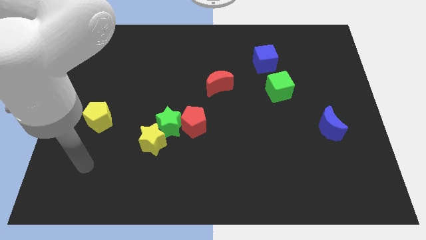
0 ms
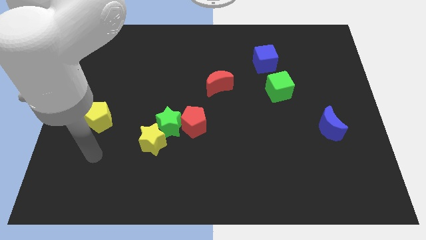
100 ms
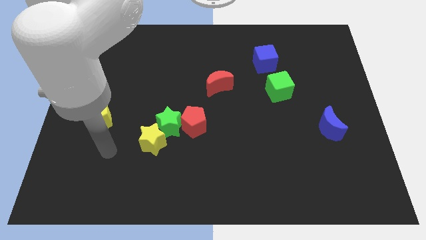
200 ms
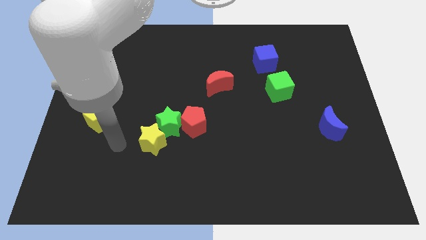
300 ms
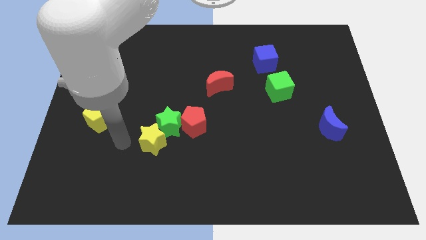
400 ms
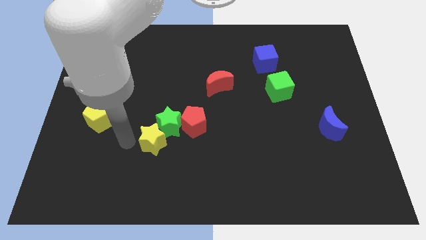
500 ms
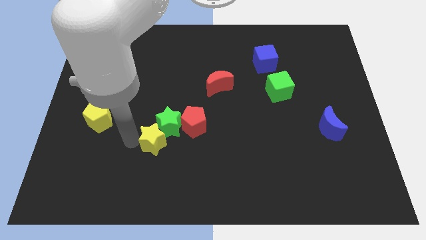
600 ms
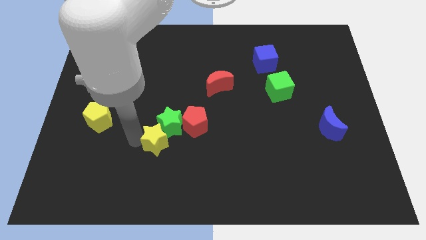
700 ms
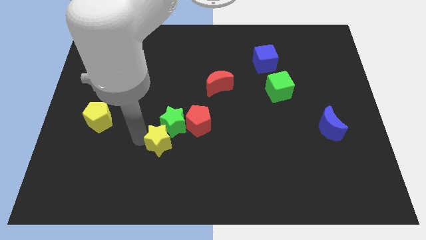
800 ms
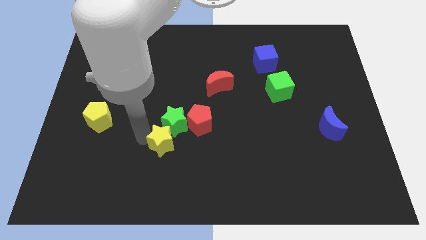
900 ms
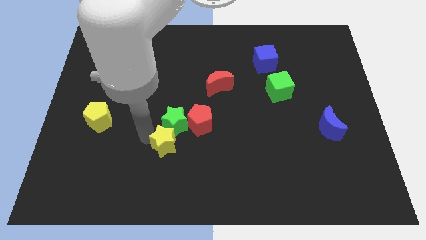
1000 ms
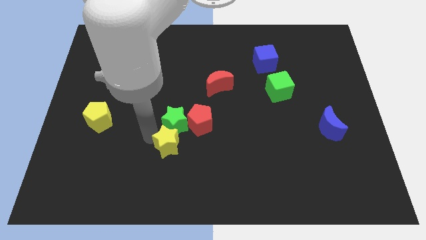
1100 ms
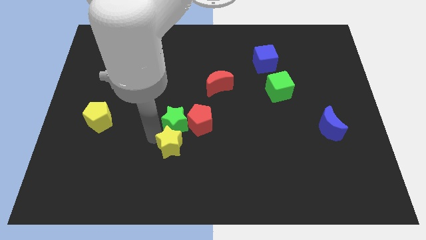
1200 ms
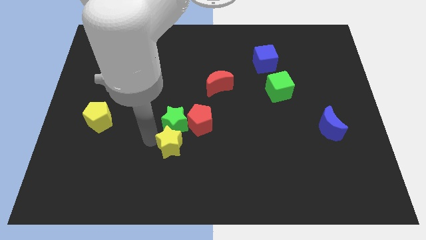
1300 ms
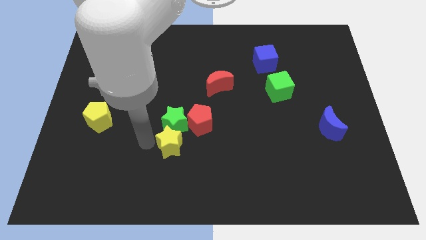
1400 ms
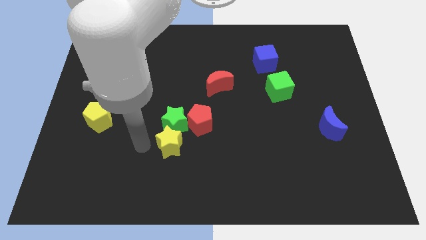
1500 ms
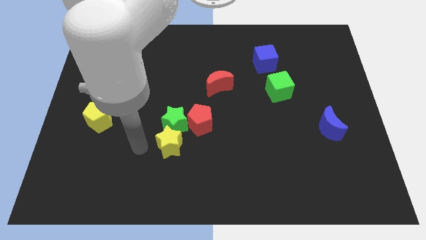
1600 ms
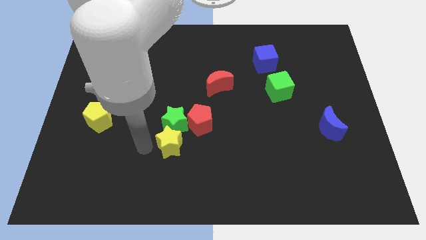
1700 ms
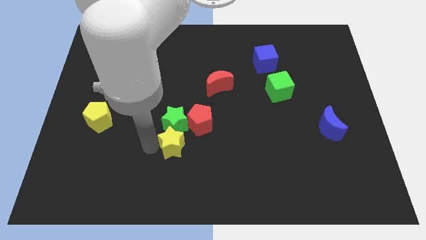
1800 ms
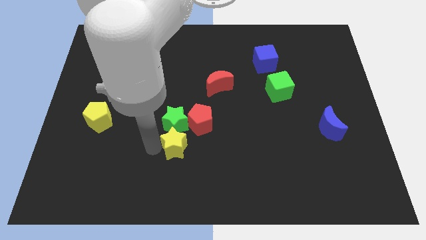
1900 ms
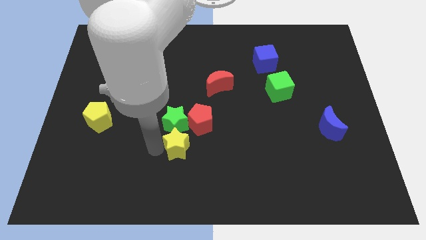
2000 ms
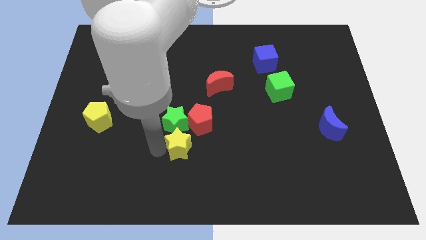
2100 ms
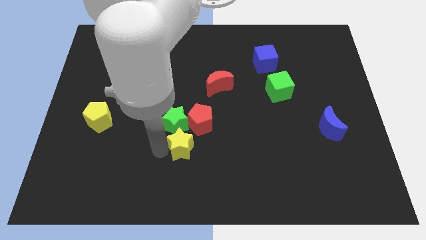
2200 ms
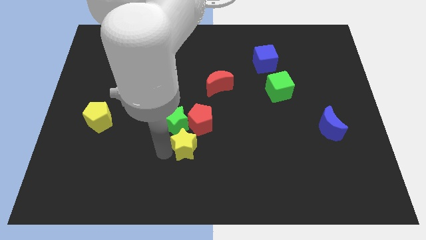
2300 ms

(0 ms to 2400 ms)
slightly move the yellow star to the right

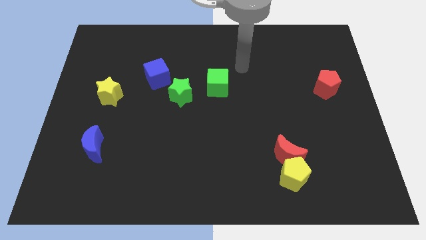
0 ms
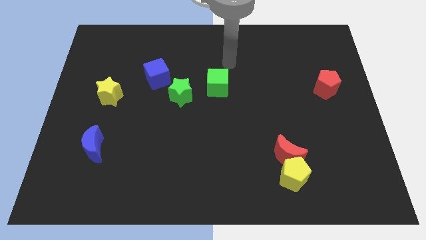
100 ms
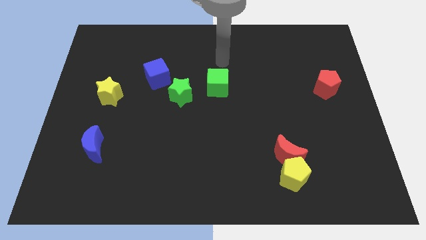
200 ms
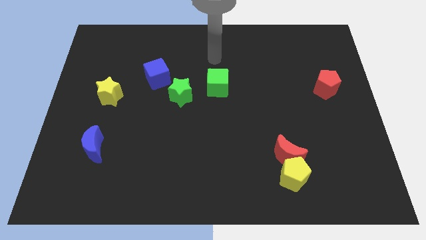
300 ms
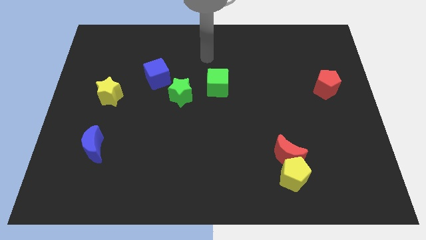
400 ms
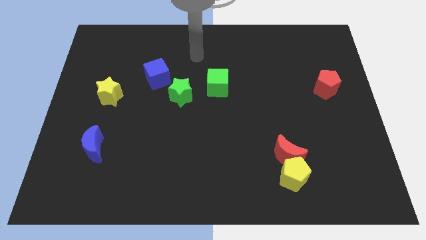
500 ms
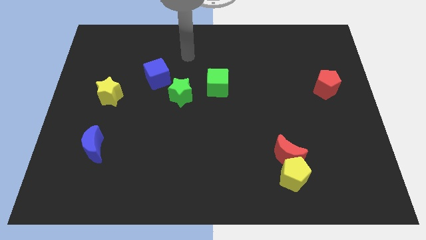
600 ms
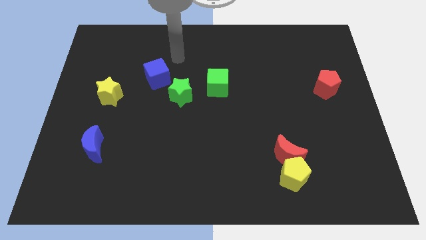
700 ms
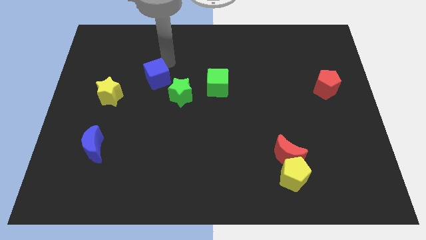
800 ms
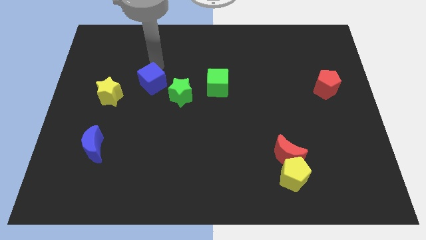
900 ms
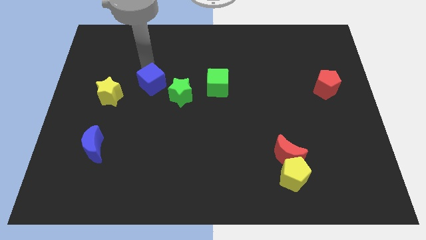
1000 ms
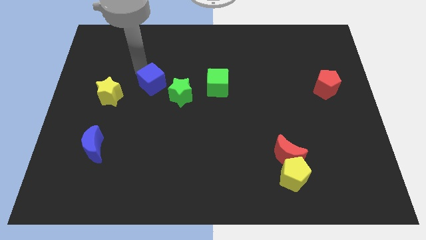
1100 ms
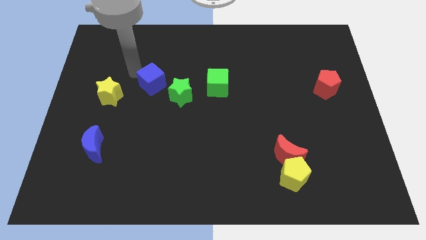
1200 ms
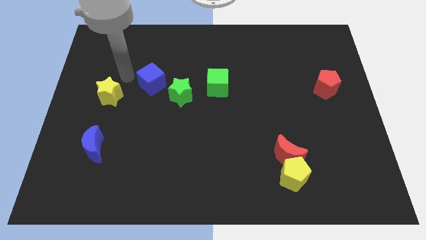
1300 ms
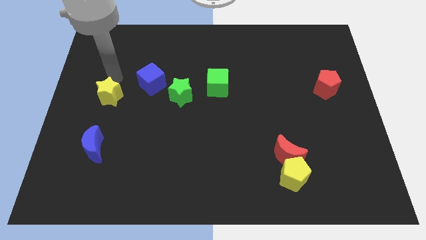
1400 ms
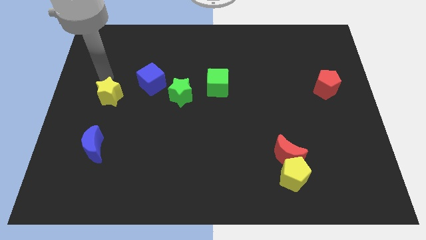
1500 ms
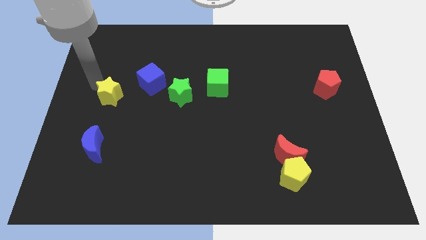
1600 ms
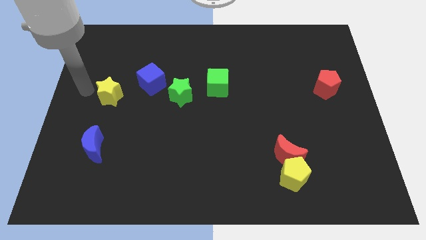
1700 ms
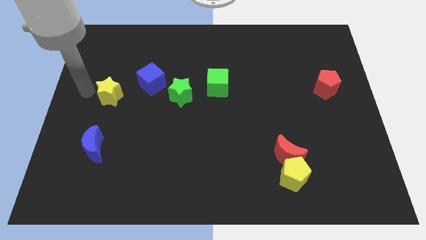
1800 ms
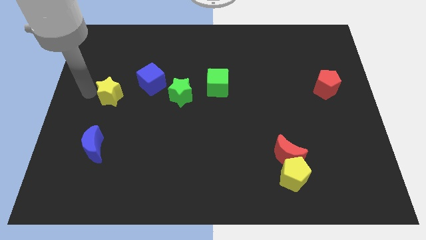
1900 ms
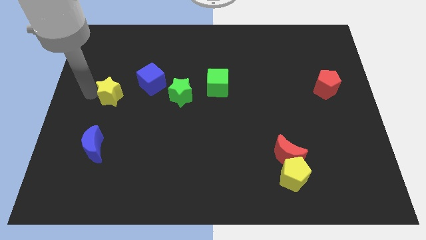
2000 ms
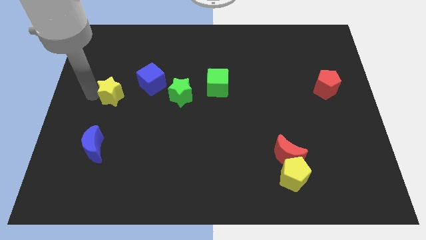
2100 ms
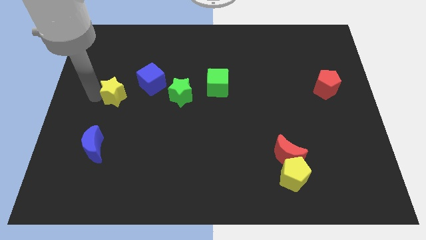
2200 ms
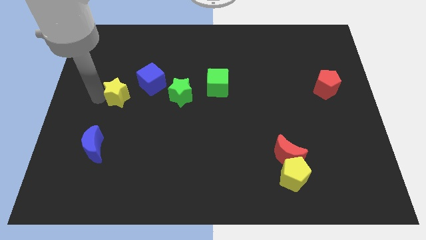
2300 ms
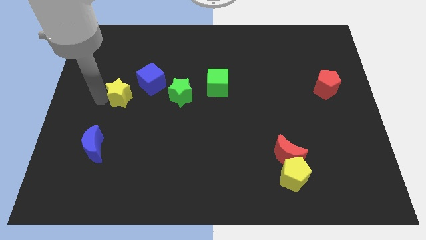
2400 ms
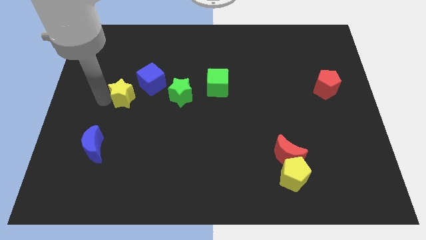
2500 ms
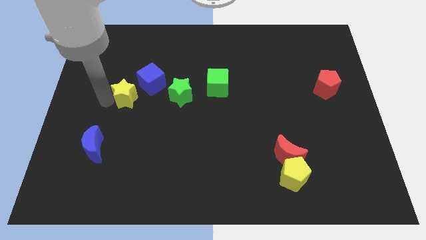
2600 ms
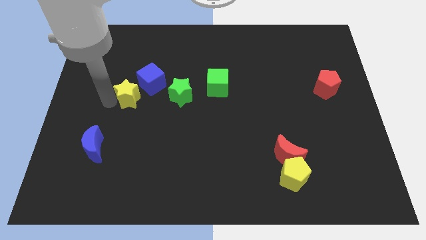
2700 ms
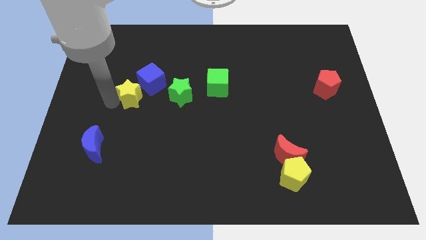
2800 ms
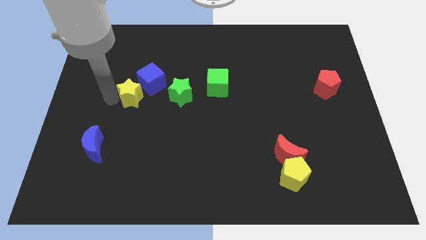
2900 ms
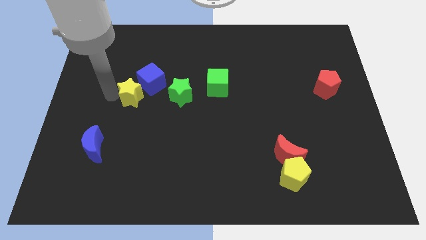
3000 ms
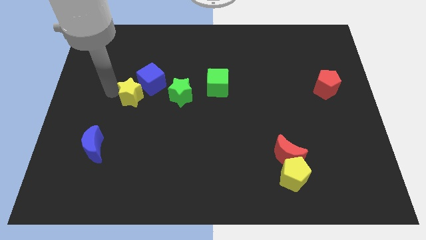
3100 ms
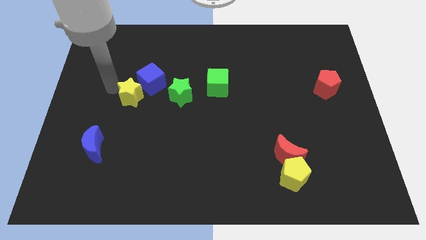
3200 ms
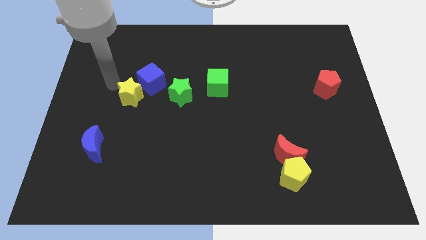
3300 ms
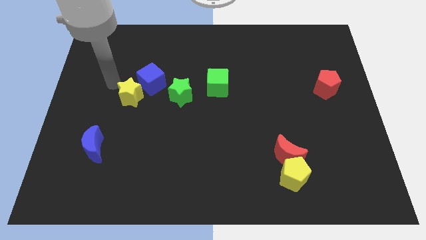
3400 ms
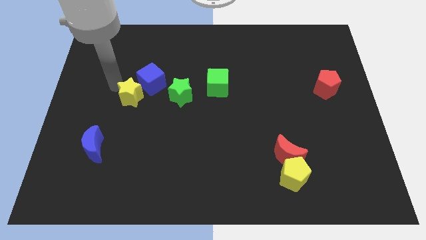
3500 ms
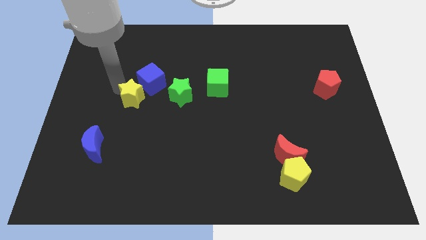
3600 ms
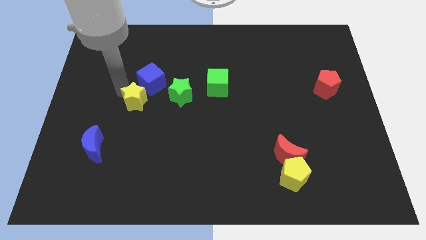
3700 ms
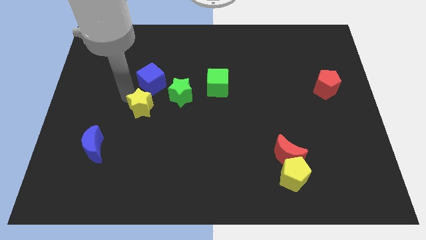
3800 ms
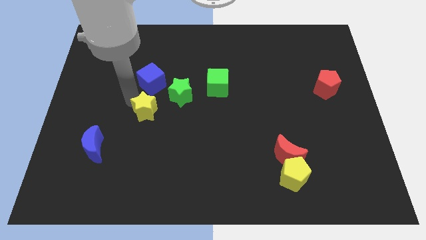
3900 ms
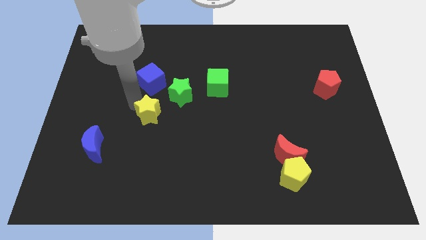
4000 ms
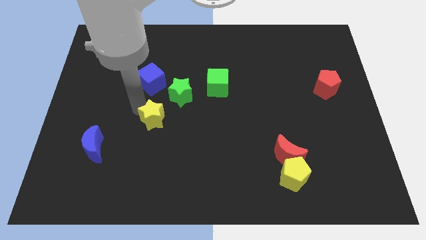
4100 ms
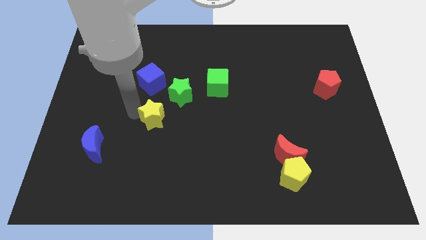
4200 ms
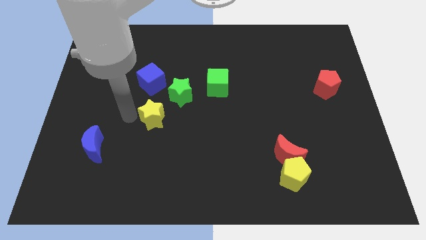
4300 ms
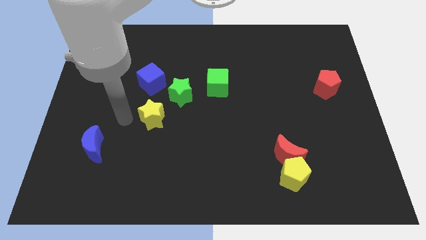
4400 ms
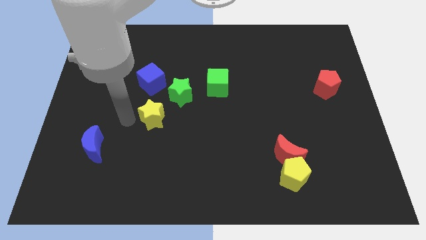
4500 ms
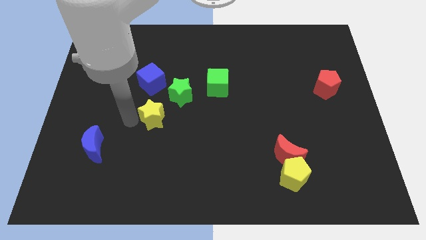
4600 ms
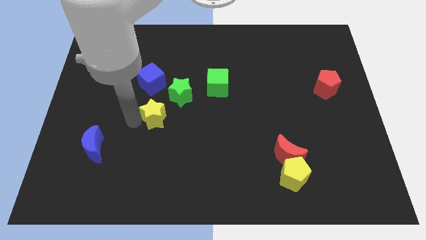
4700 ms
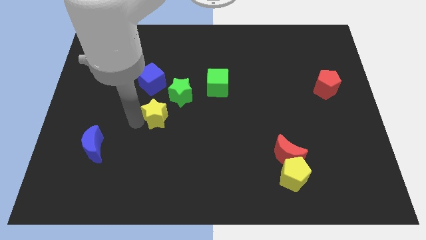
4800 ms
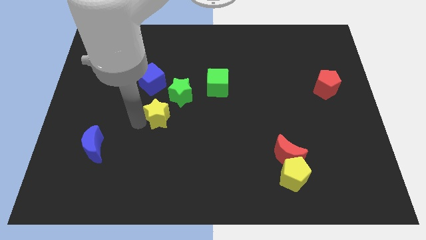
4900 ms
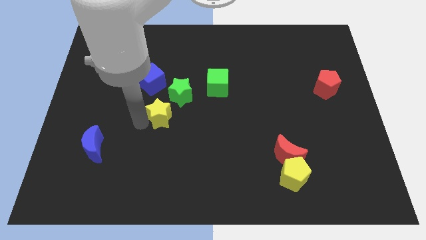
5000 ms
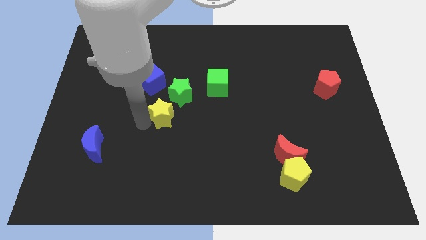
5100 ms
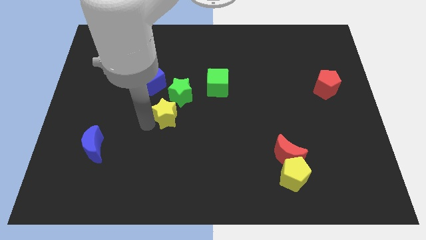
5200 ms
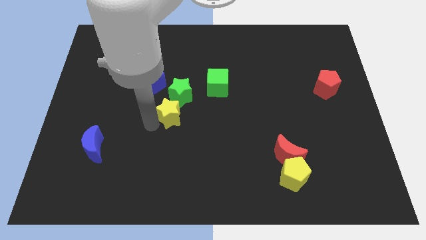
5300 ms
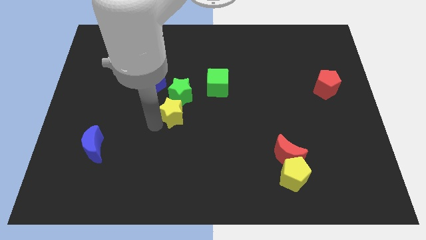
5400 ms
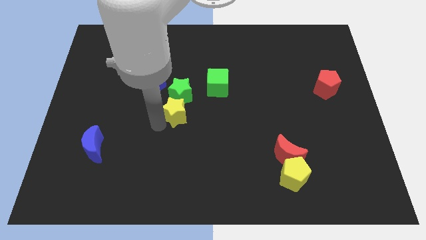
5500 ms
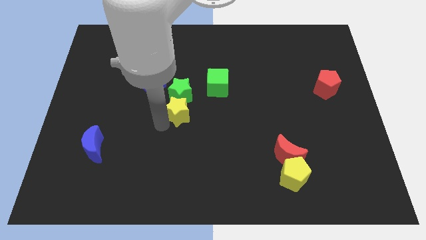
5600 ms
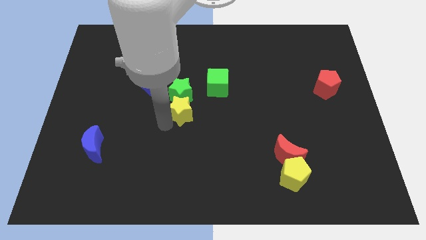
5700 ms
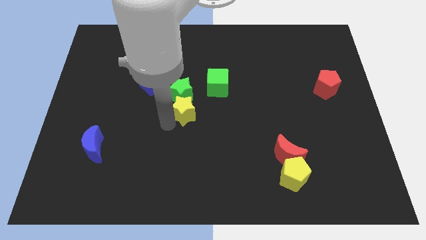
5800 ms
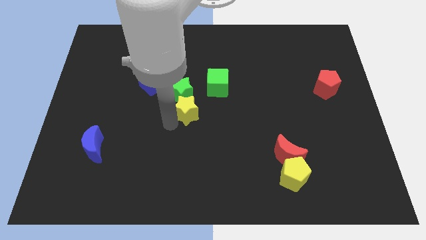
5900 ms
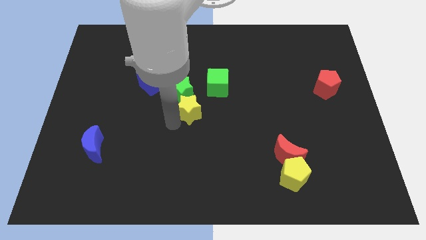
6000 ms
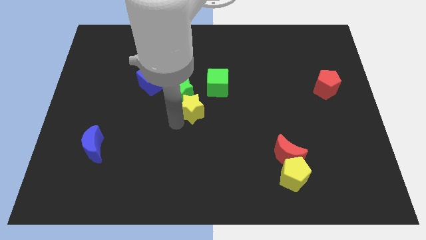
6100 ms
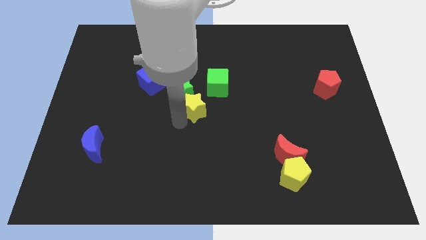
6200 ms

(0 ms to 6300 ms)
push the yellow star to the right
